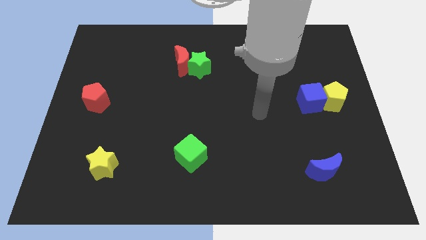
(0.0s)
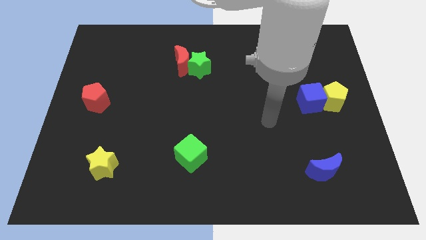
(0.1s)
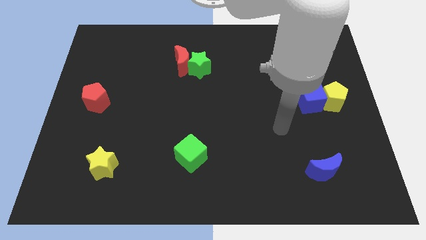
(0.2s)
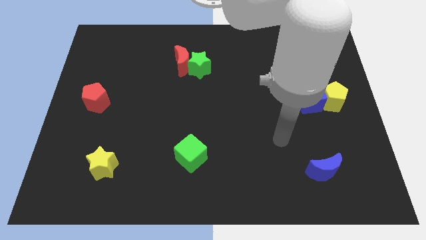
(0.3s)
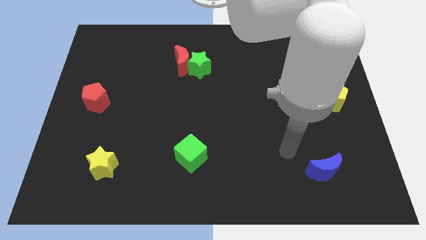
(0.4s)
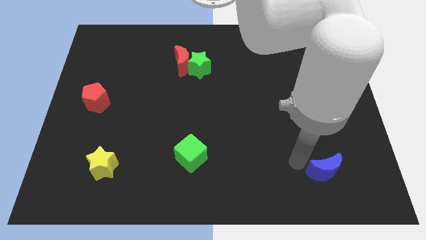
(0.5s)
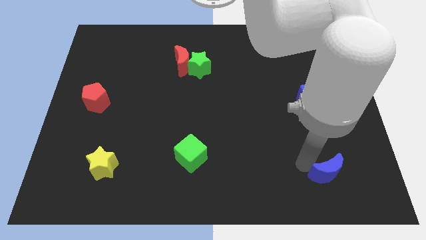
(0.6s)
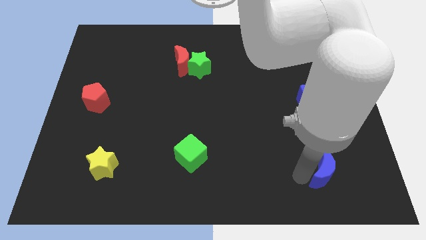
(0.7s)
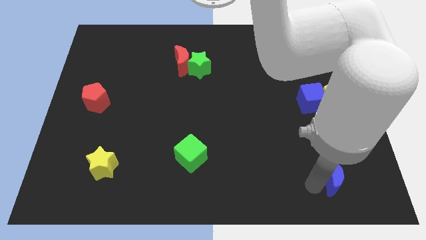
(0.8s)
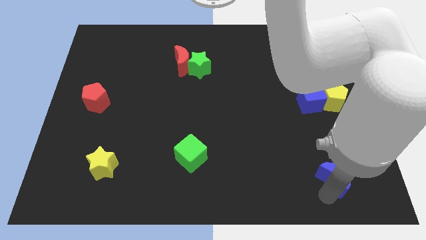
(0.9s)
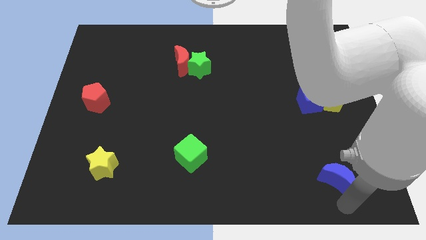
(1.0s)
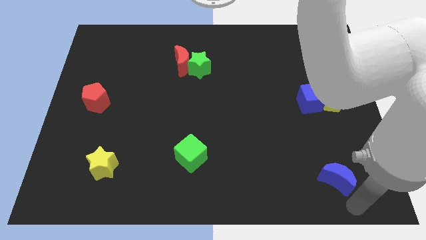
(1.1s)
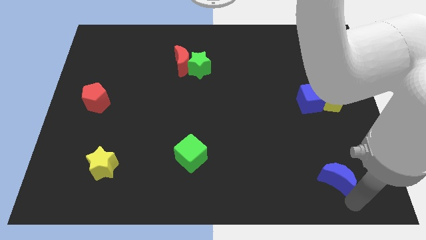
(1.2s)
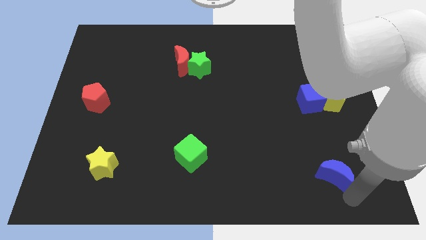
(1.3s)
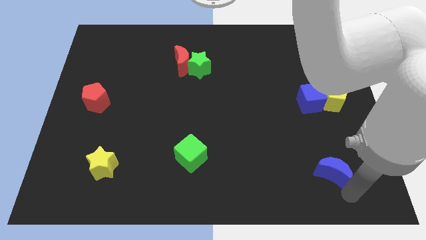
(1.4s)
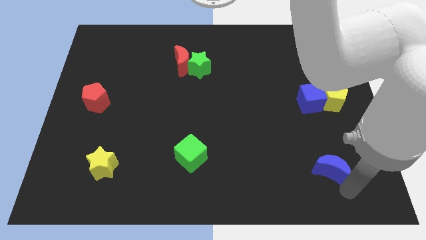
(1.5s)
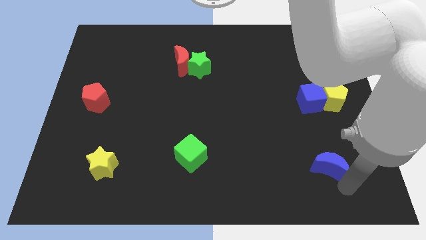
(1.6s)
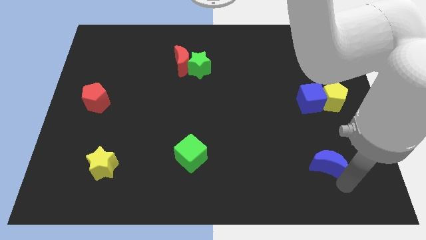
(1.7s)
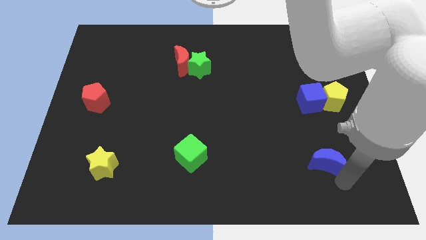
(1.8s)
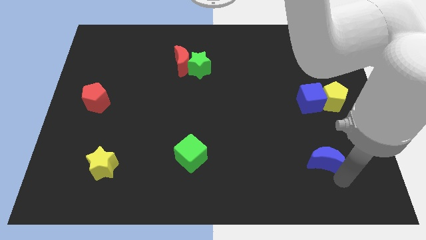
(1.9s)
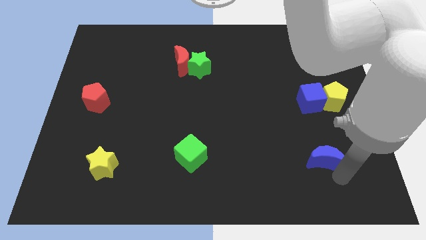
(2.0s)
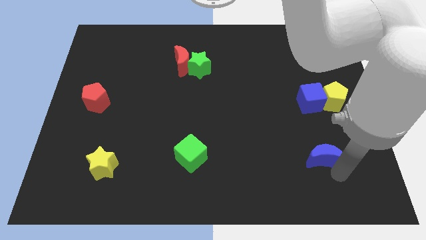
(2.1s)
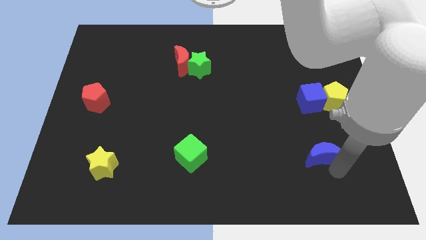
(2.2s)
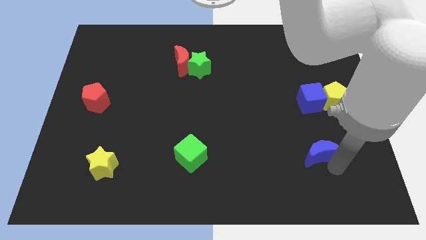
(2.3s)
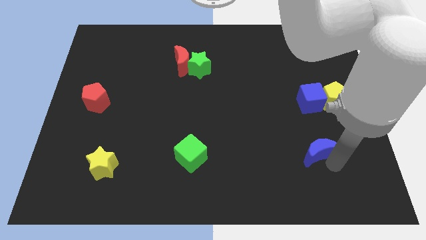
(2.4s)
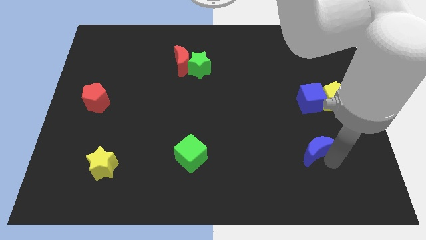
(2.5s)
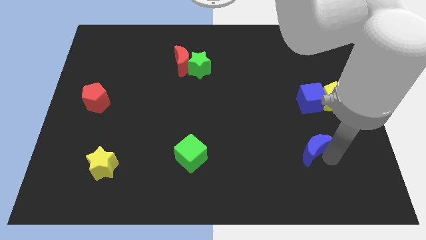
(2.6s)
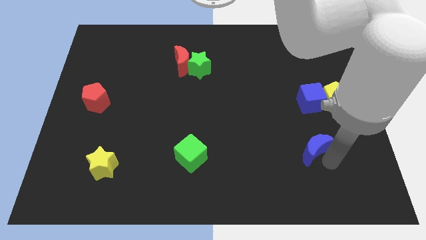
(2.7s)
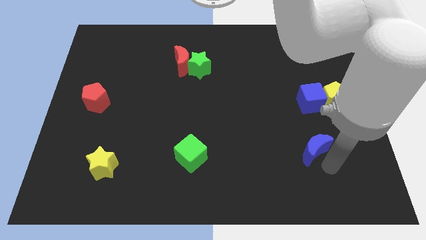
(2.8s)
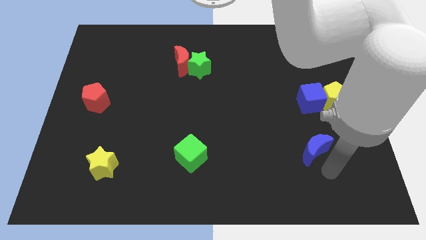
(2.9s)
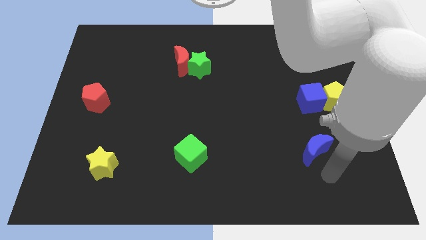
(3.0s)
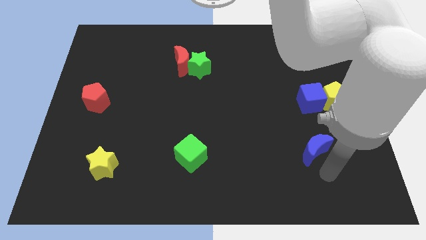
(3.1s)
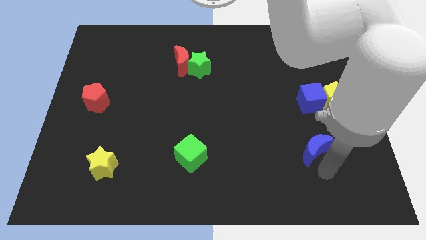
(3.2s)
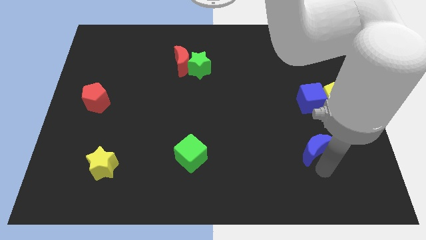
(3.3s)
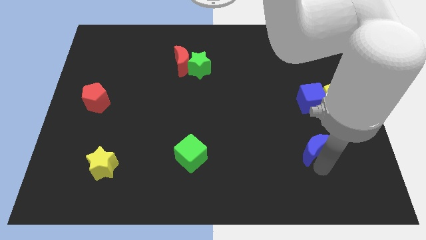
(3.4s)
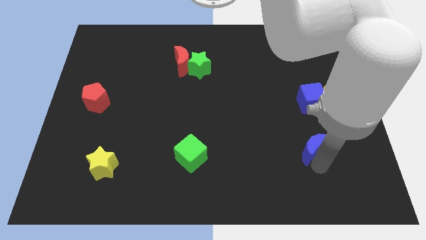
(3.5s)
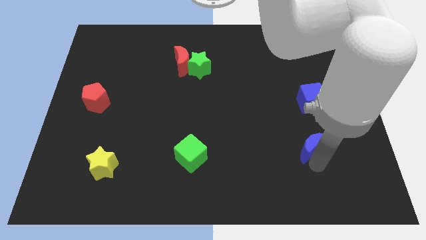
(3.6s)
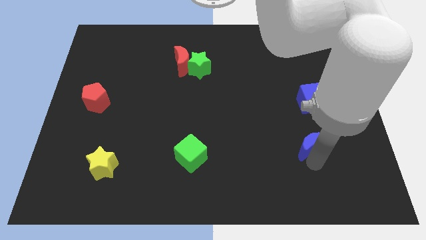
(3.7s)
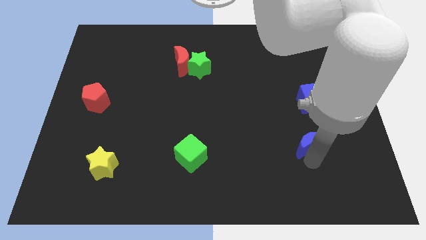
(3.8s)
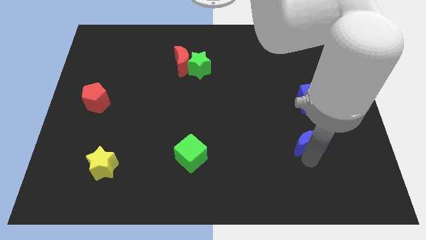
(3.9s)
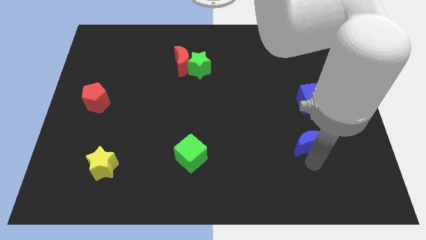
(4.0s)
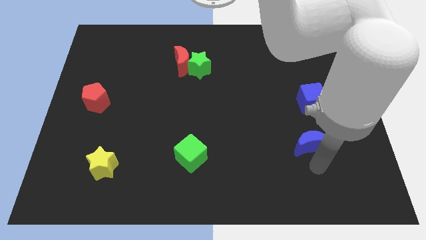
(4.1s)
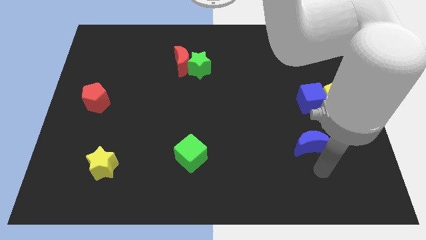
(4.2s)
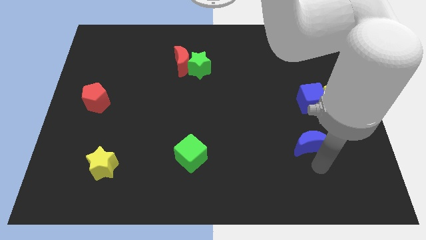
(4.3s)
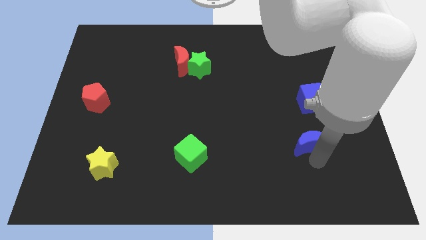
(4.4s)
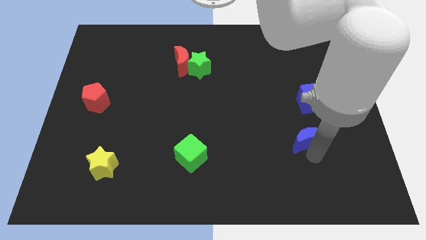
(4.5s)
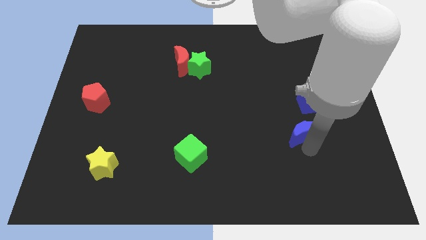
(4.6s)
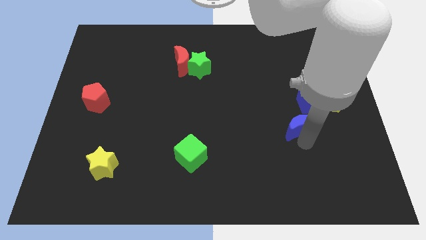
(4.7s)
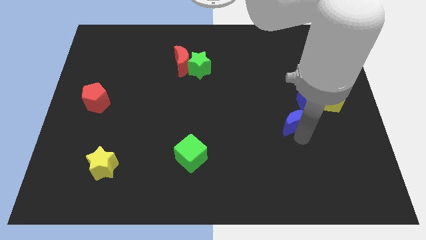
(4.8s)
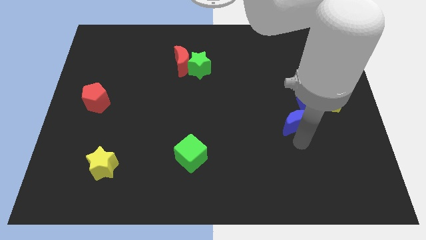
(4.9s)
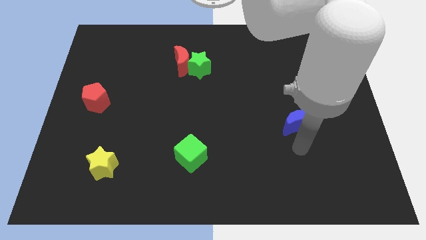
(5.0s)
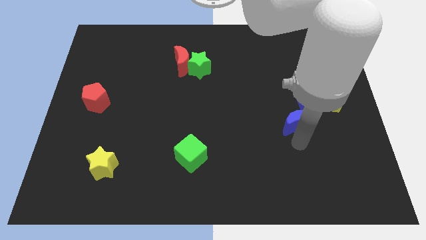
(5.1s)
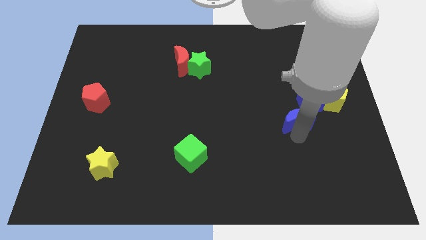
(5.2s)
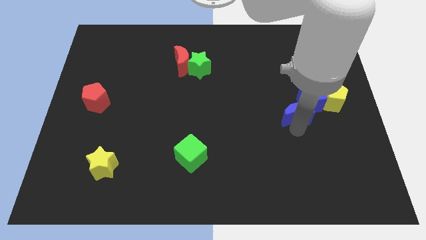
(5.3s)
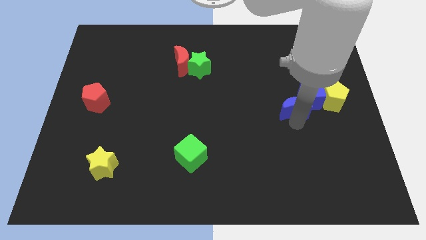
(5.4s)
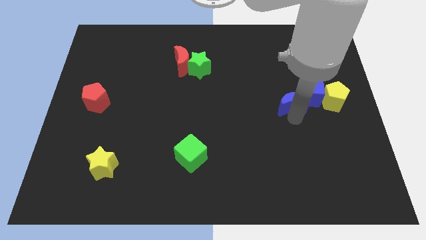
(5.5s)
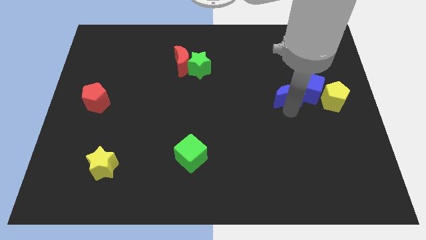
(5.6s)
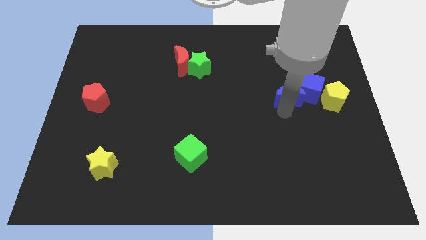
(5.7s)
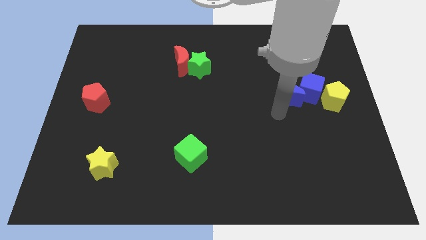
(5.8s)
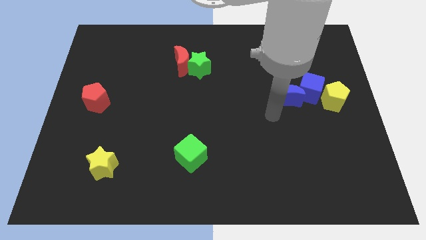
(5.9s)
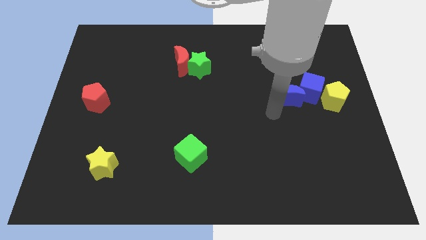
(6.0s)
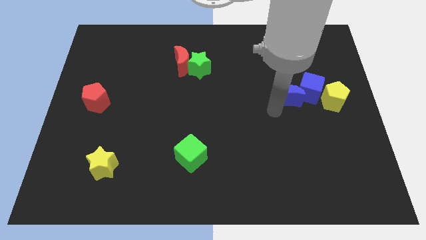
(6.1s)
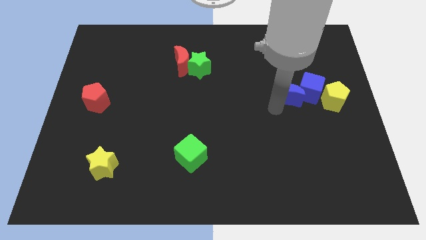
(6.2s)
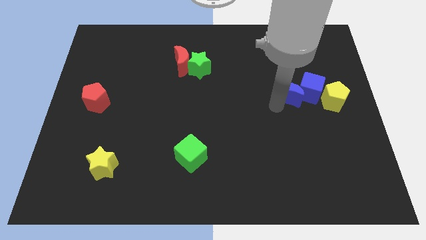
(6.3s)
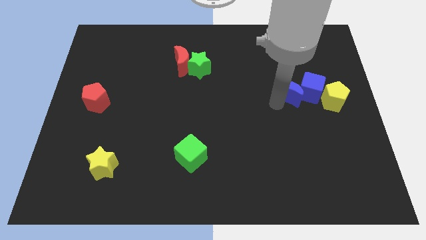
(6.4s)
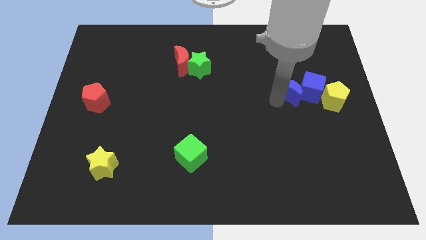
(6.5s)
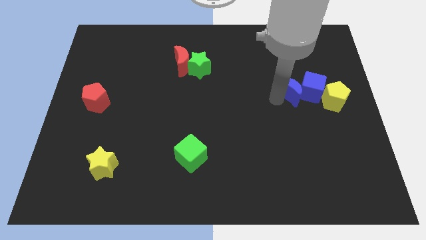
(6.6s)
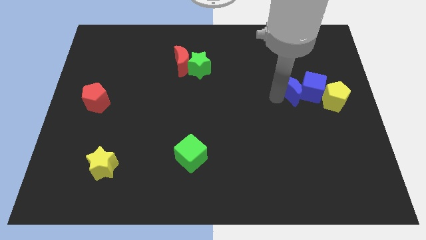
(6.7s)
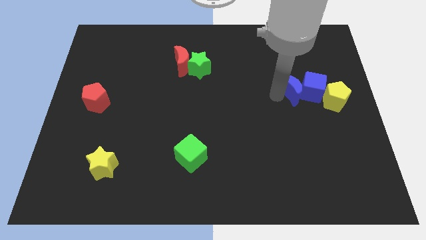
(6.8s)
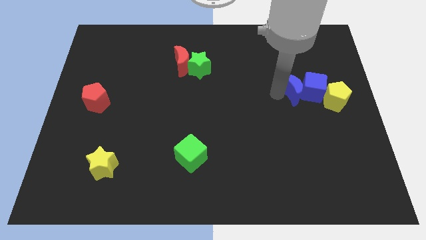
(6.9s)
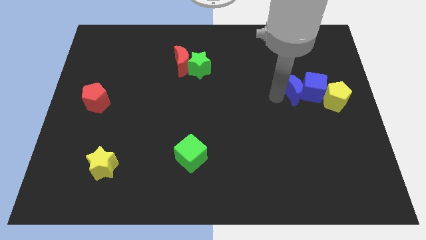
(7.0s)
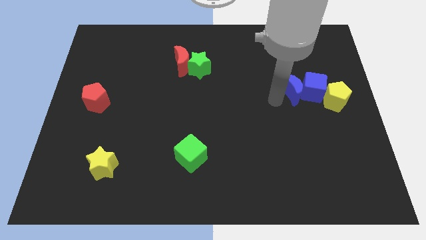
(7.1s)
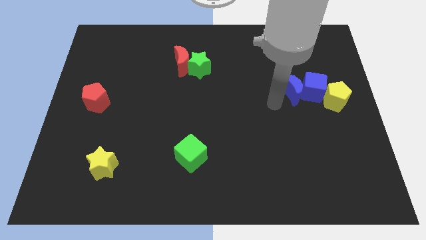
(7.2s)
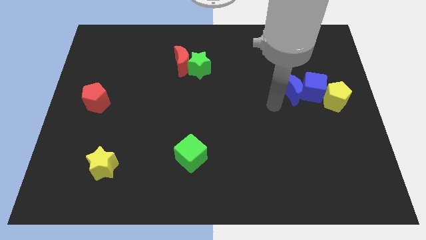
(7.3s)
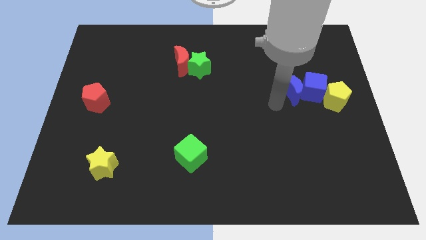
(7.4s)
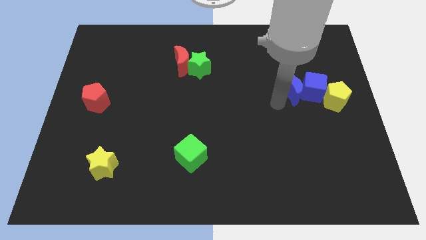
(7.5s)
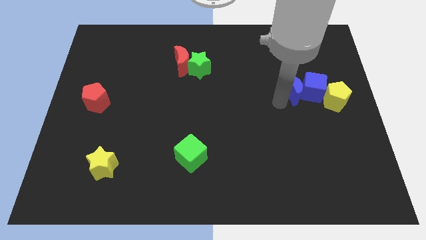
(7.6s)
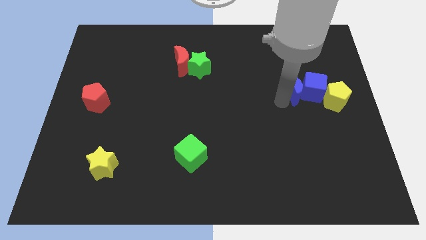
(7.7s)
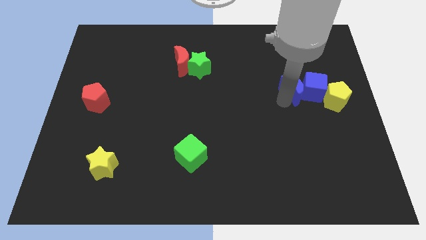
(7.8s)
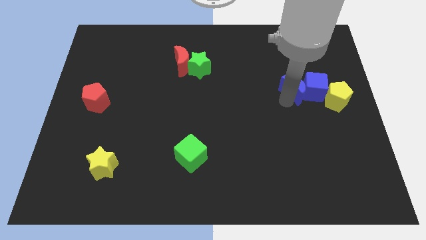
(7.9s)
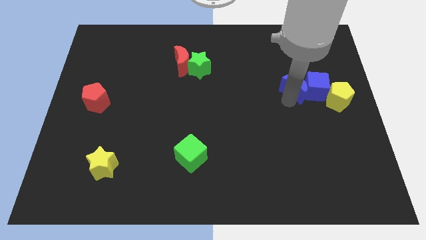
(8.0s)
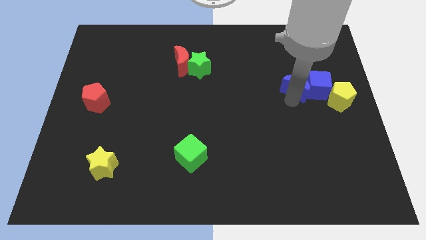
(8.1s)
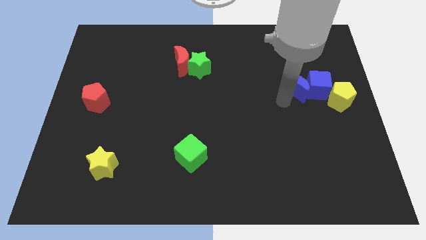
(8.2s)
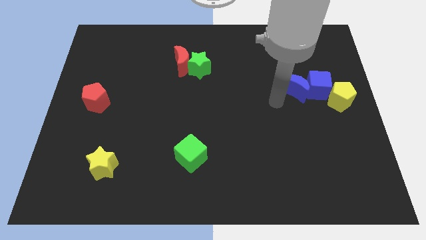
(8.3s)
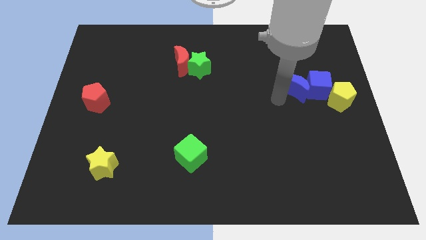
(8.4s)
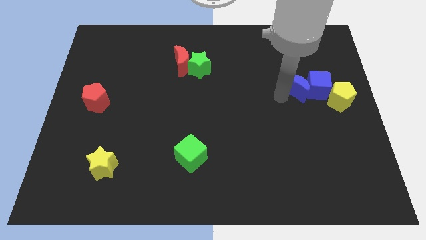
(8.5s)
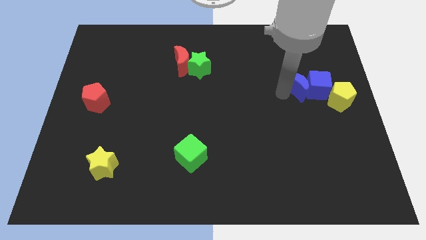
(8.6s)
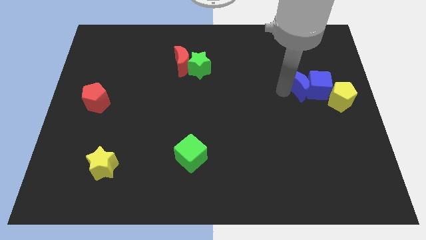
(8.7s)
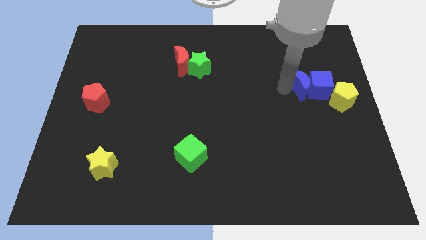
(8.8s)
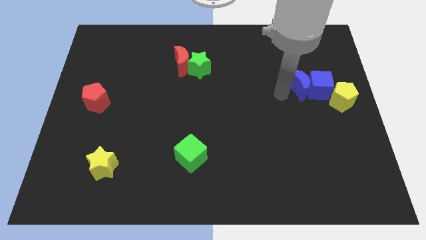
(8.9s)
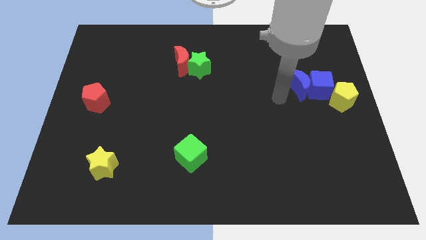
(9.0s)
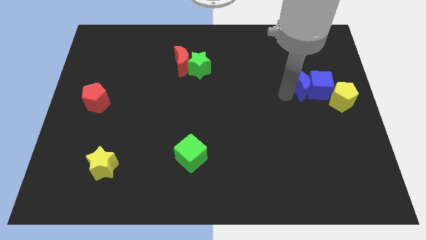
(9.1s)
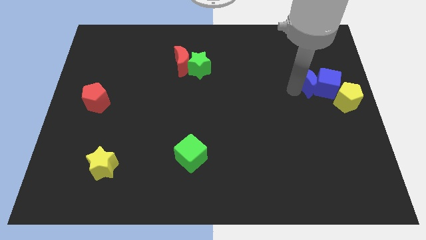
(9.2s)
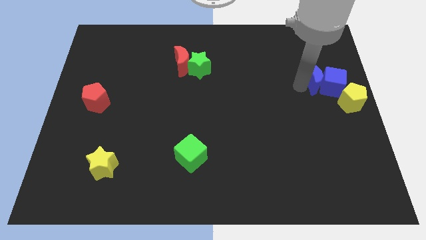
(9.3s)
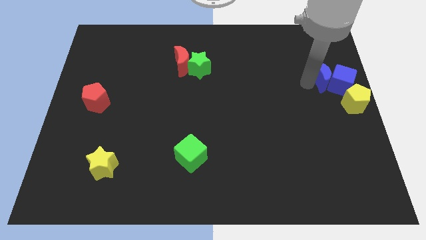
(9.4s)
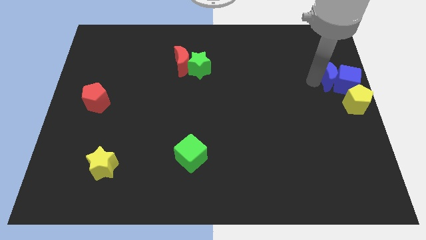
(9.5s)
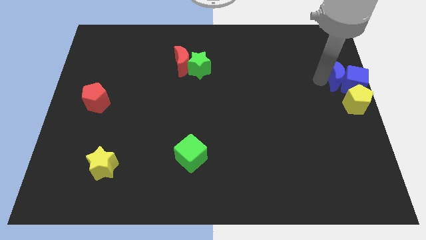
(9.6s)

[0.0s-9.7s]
move the blue moon to the top side of the yellow pentagon
